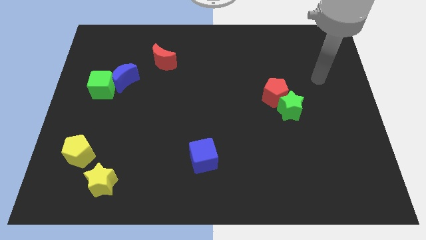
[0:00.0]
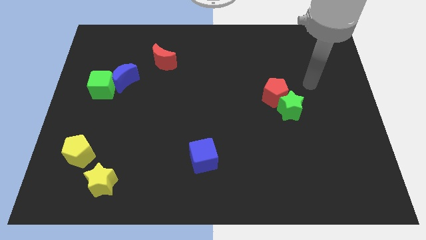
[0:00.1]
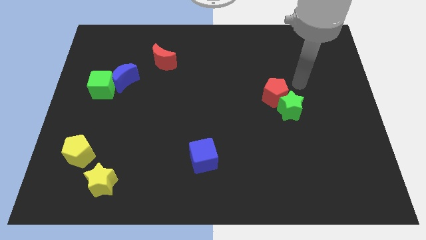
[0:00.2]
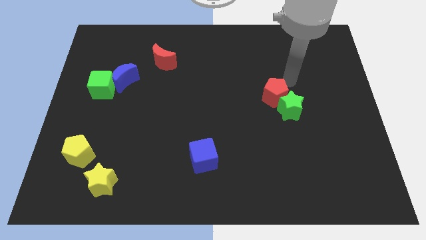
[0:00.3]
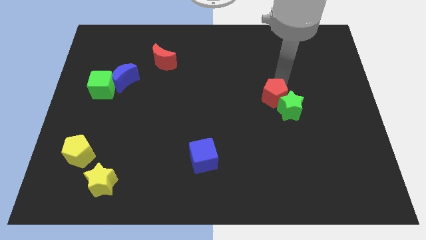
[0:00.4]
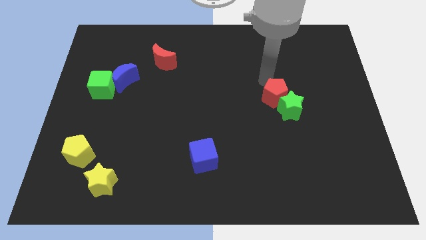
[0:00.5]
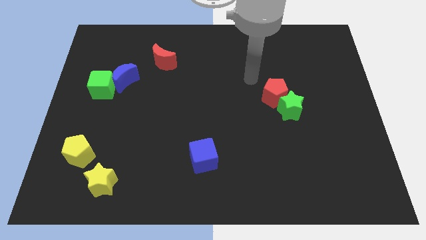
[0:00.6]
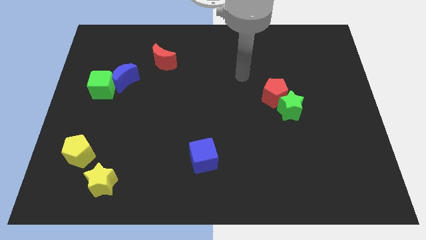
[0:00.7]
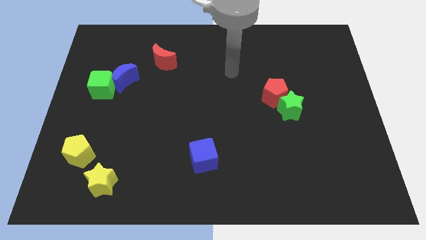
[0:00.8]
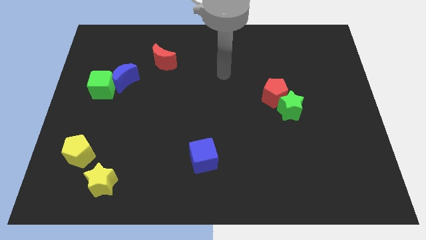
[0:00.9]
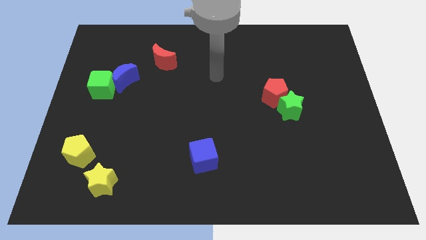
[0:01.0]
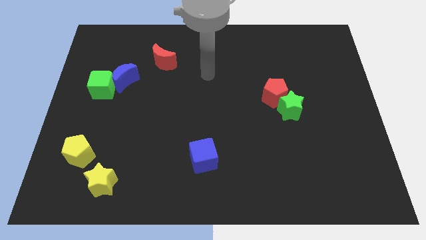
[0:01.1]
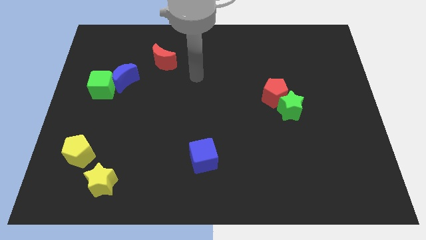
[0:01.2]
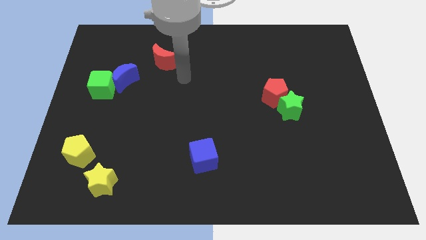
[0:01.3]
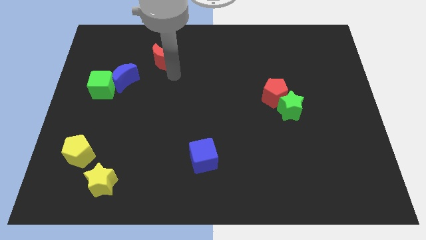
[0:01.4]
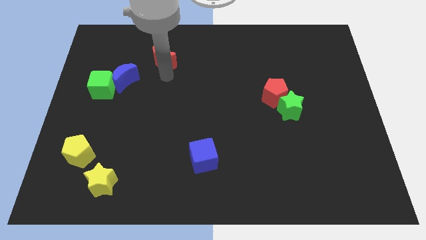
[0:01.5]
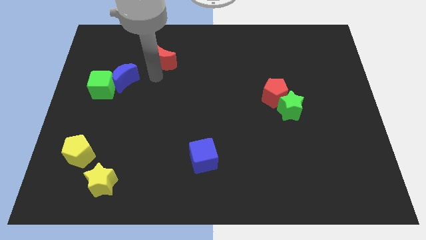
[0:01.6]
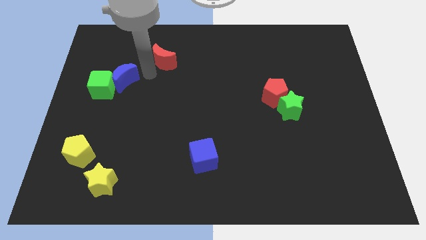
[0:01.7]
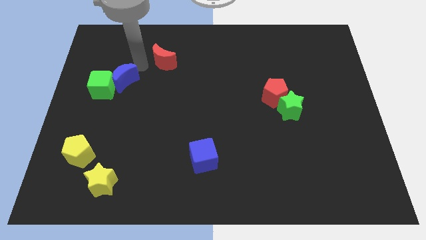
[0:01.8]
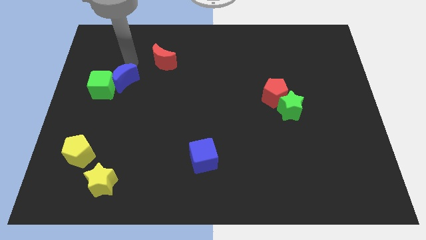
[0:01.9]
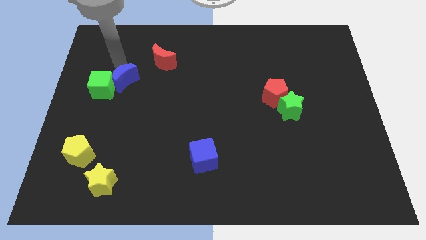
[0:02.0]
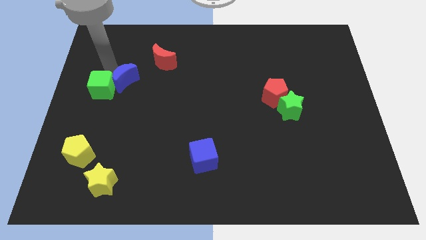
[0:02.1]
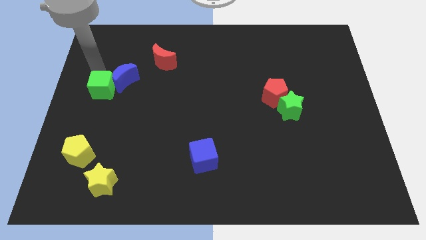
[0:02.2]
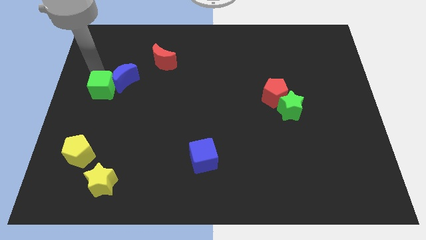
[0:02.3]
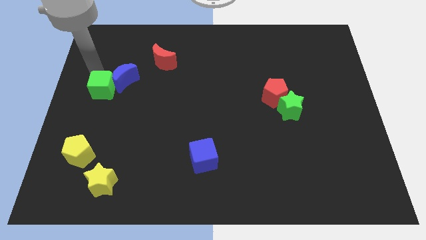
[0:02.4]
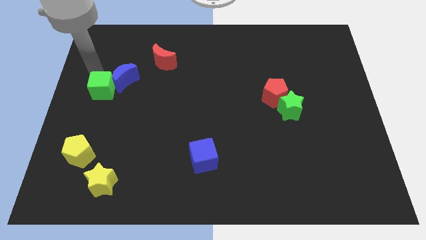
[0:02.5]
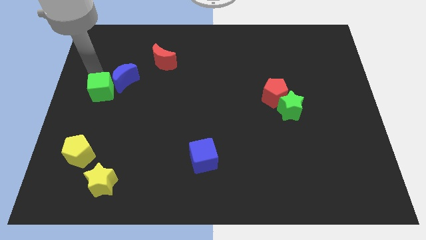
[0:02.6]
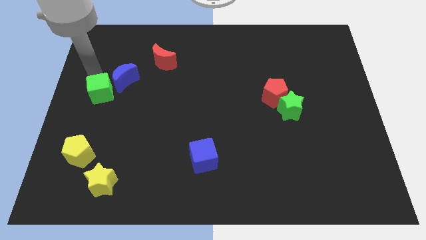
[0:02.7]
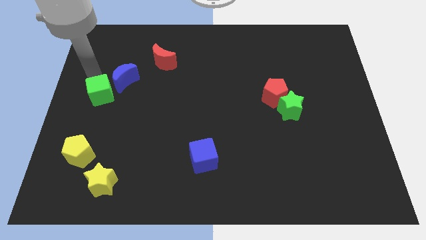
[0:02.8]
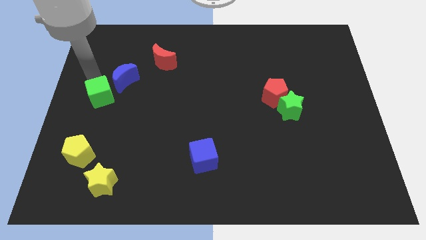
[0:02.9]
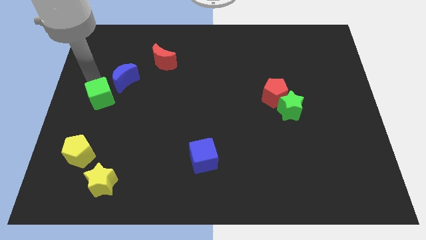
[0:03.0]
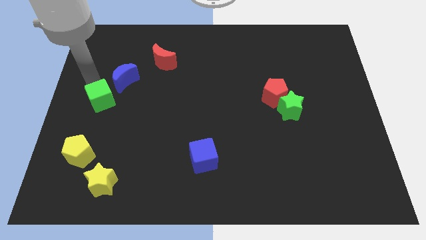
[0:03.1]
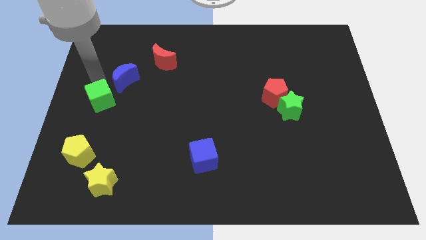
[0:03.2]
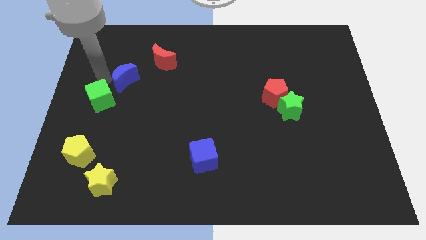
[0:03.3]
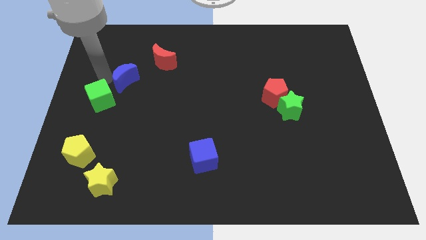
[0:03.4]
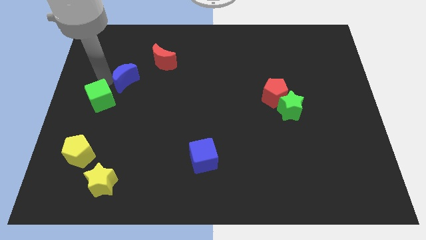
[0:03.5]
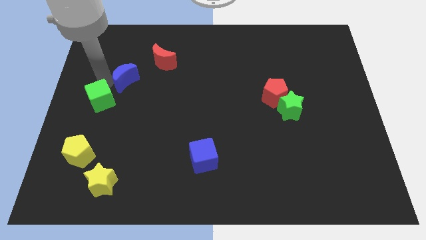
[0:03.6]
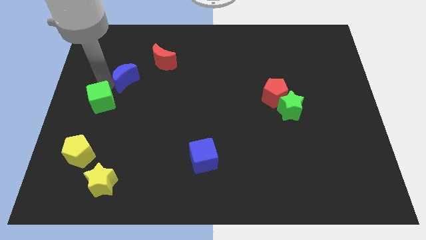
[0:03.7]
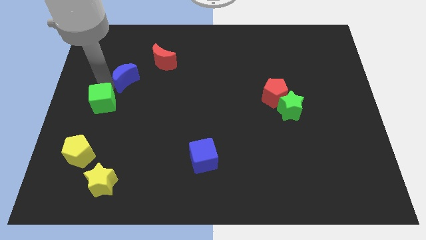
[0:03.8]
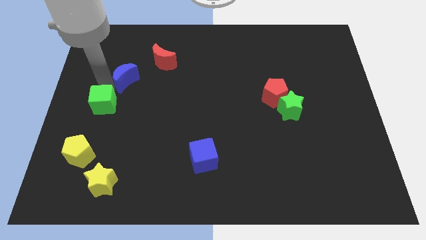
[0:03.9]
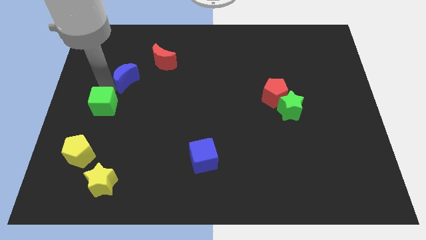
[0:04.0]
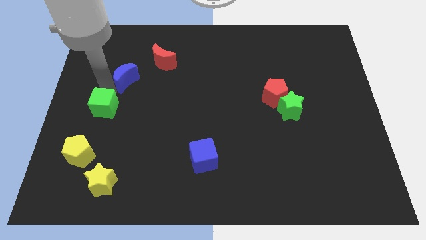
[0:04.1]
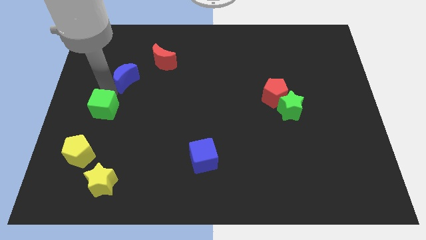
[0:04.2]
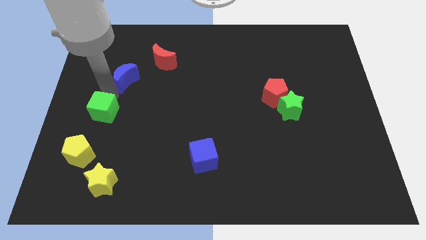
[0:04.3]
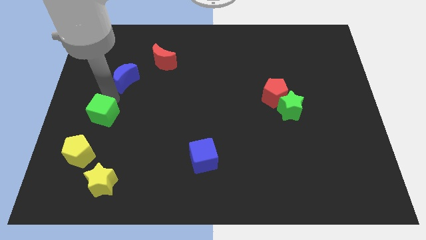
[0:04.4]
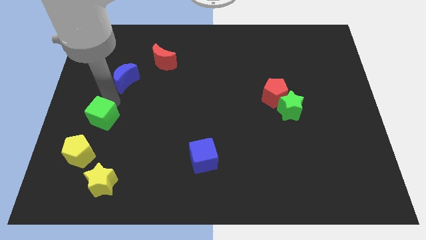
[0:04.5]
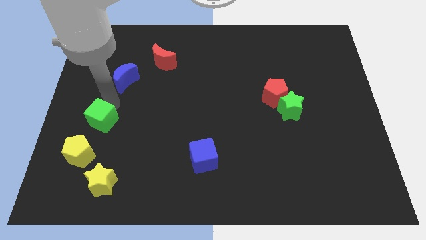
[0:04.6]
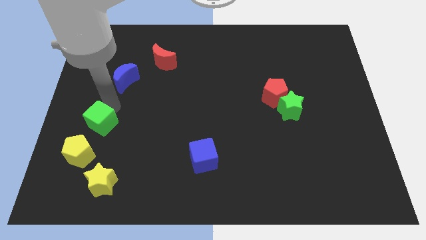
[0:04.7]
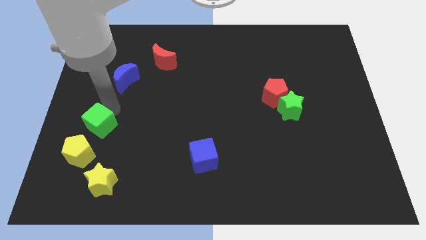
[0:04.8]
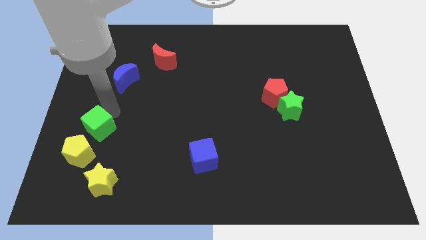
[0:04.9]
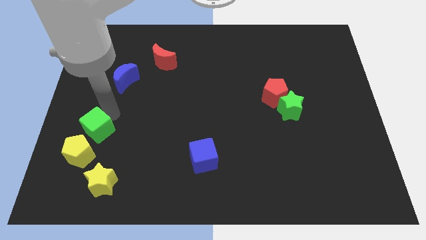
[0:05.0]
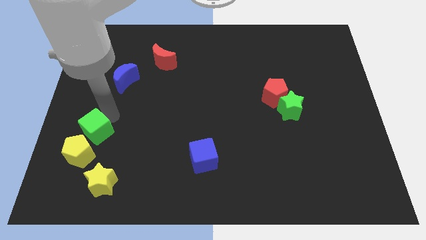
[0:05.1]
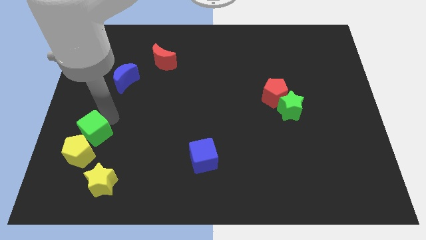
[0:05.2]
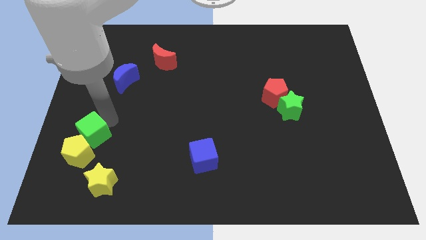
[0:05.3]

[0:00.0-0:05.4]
move the green cube next to the yellow pentagon

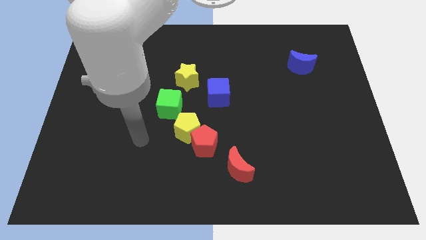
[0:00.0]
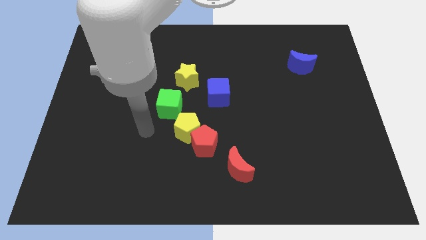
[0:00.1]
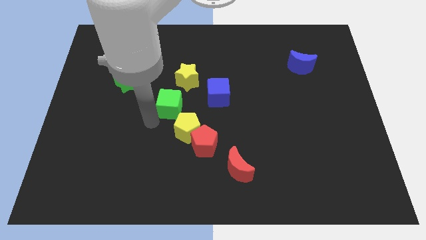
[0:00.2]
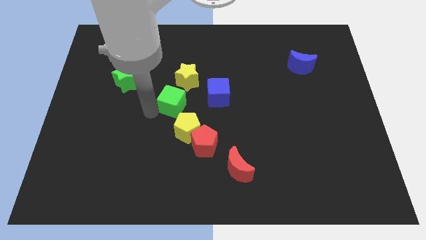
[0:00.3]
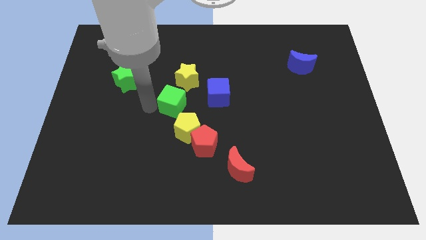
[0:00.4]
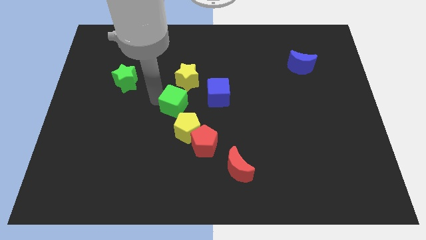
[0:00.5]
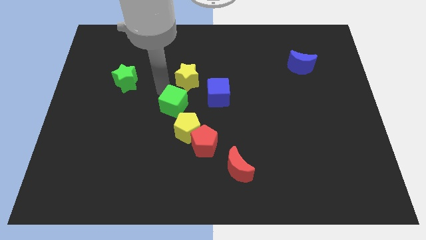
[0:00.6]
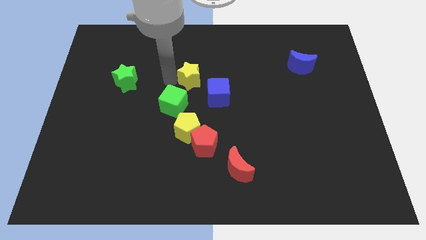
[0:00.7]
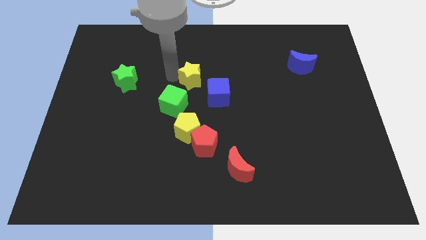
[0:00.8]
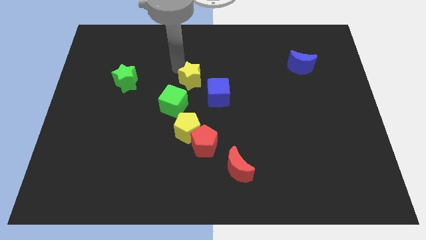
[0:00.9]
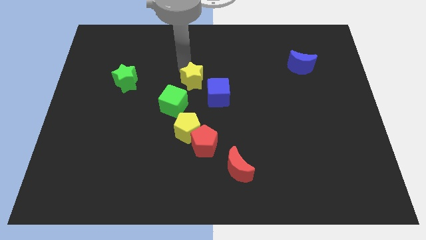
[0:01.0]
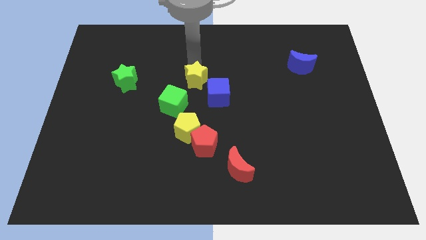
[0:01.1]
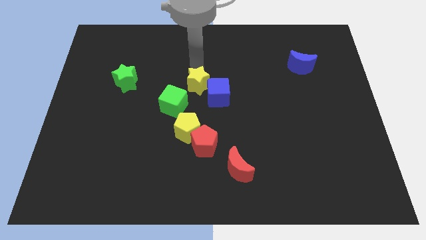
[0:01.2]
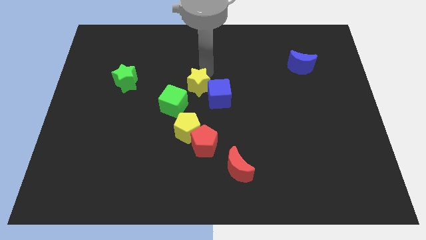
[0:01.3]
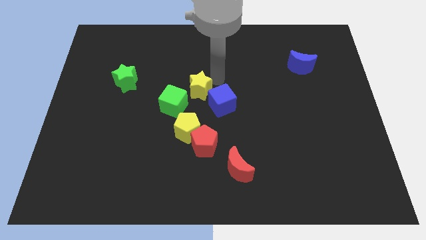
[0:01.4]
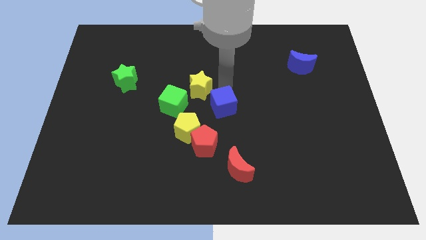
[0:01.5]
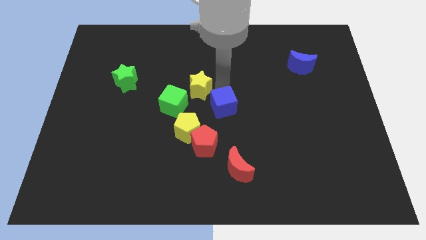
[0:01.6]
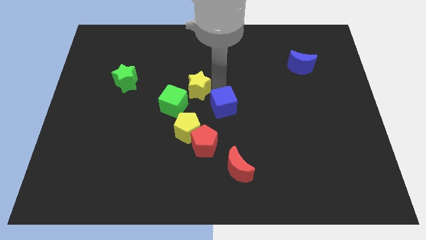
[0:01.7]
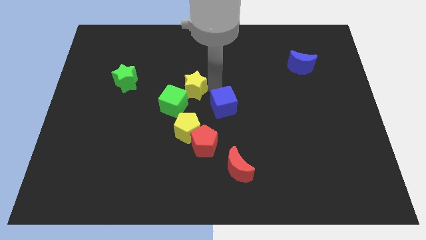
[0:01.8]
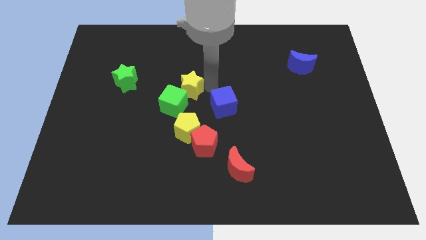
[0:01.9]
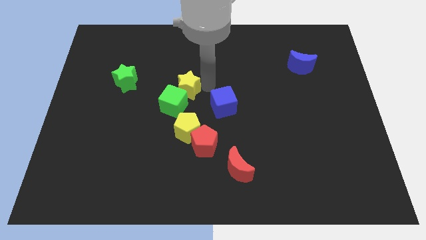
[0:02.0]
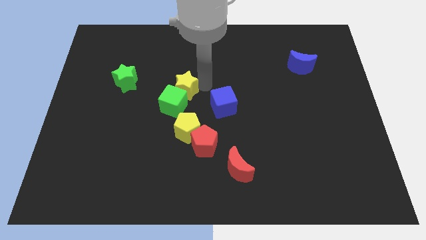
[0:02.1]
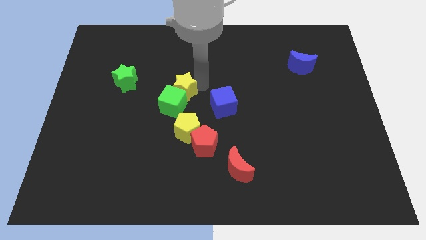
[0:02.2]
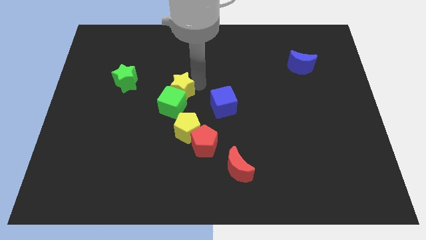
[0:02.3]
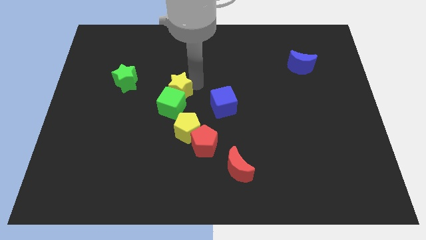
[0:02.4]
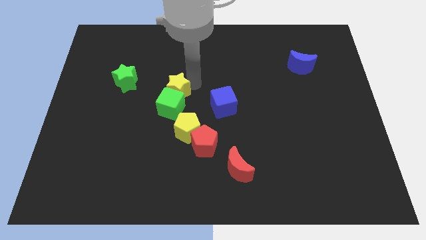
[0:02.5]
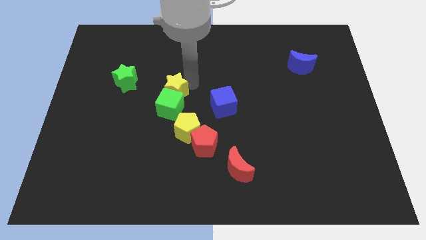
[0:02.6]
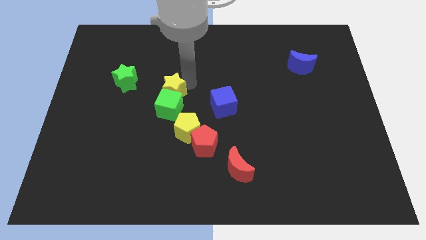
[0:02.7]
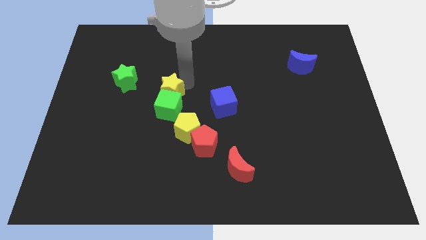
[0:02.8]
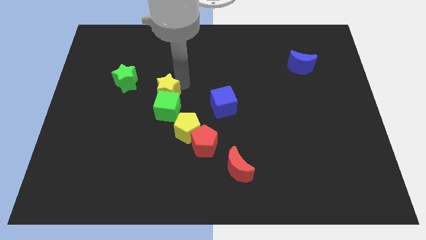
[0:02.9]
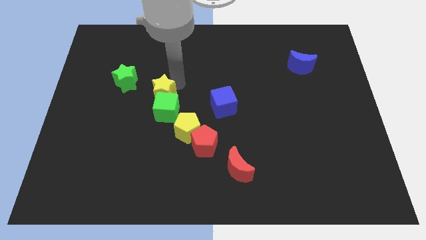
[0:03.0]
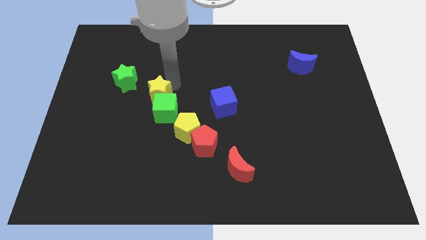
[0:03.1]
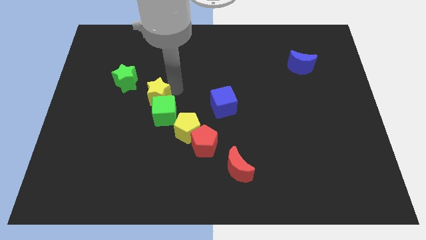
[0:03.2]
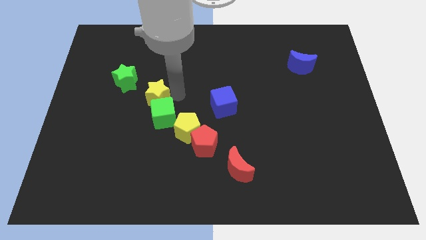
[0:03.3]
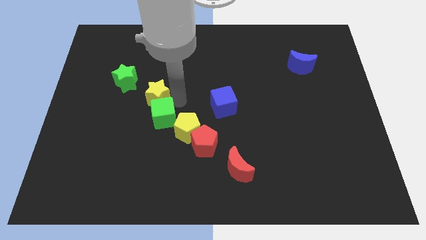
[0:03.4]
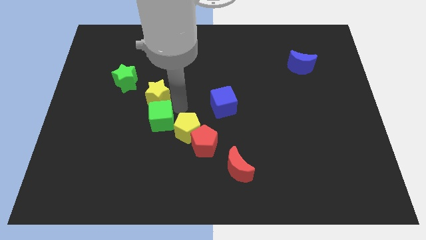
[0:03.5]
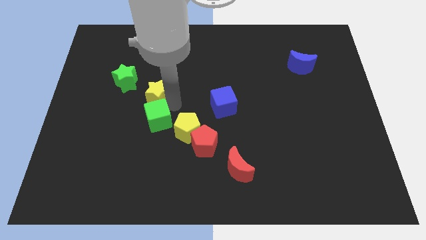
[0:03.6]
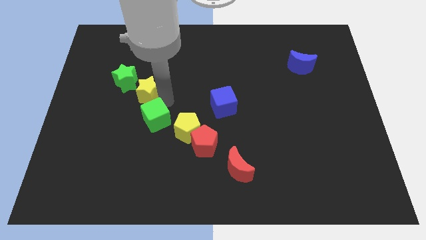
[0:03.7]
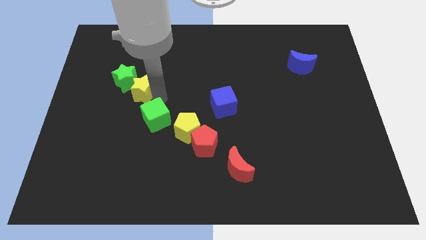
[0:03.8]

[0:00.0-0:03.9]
push the yellow star next to the green star
